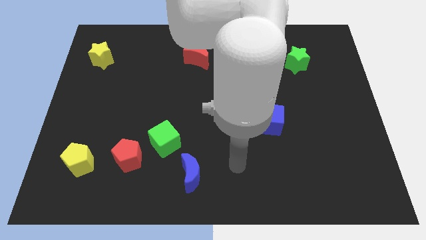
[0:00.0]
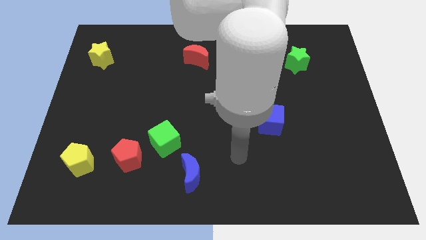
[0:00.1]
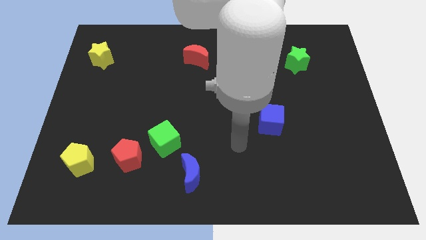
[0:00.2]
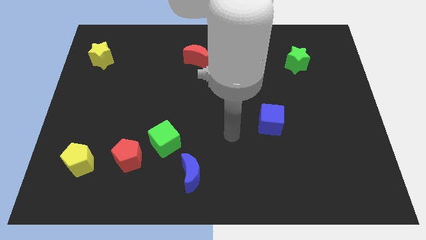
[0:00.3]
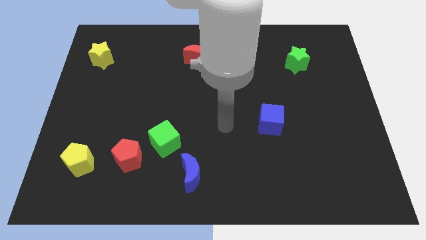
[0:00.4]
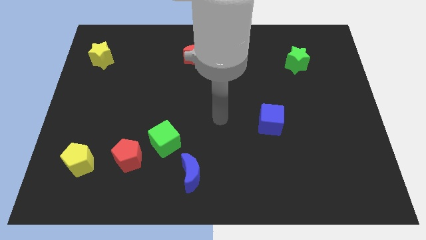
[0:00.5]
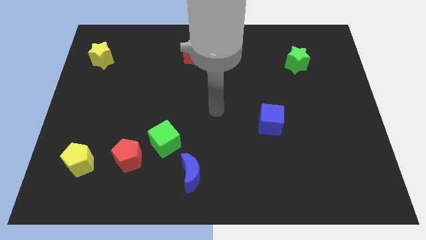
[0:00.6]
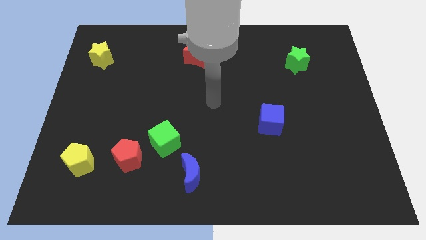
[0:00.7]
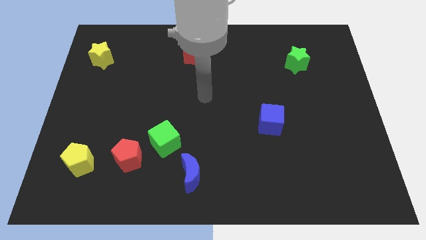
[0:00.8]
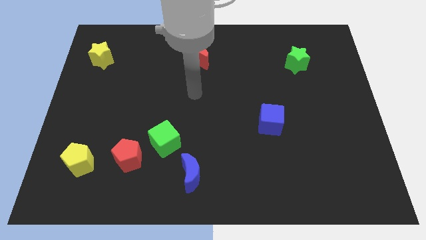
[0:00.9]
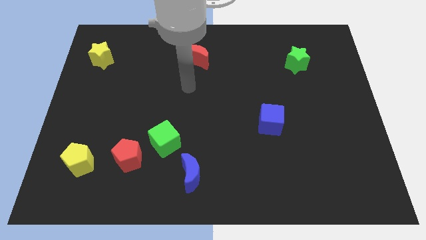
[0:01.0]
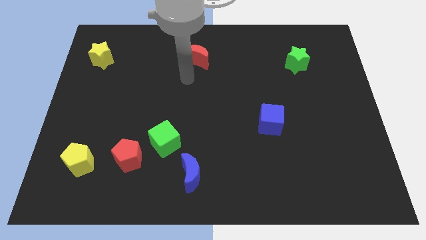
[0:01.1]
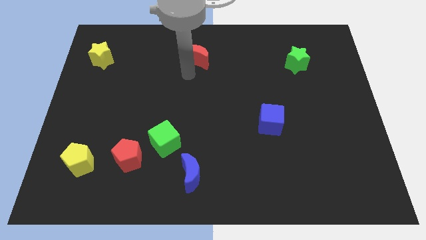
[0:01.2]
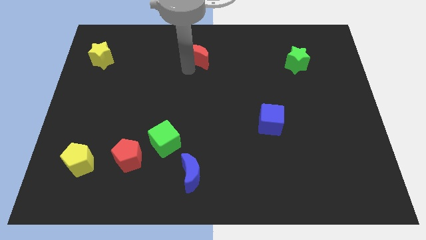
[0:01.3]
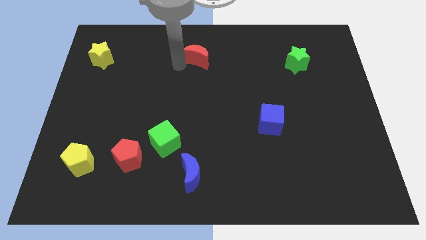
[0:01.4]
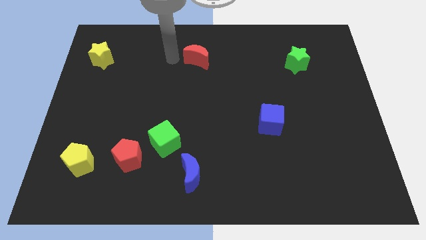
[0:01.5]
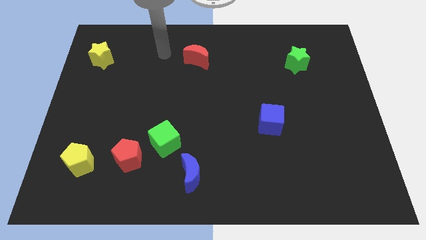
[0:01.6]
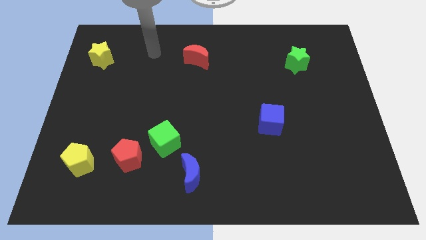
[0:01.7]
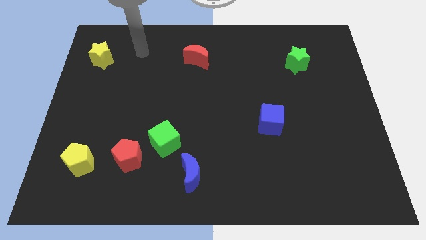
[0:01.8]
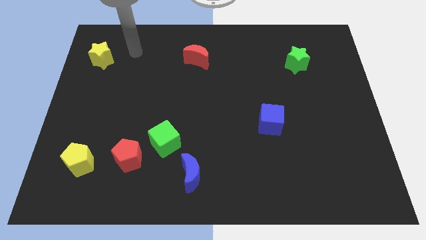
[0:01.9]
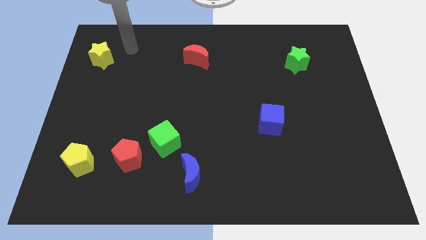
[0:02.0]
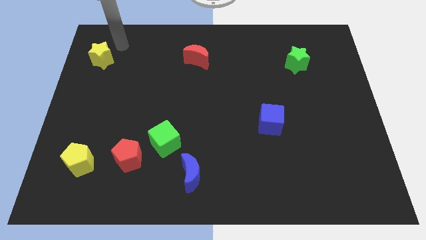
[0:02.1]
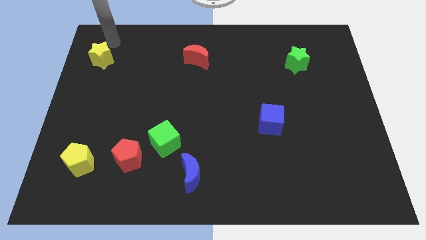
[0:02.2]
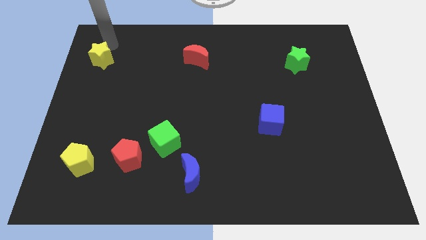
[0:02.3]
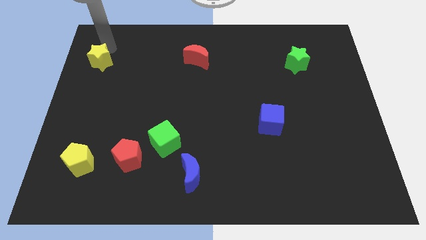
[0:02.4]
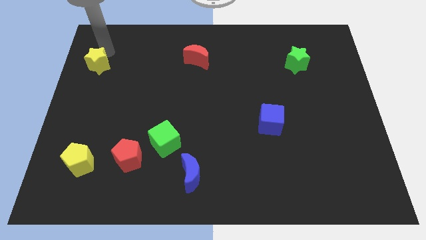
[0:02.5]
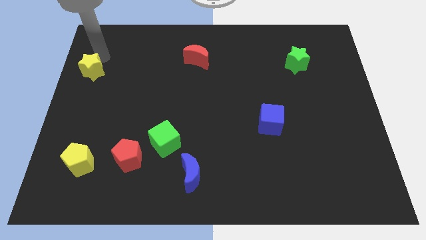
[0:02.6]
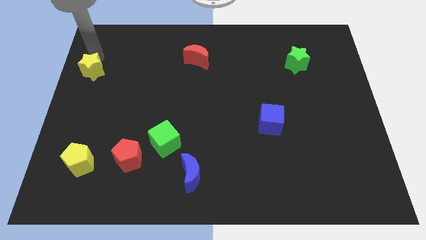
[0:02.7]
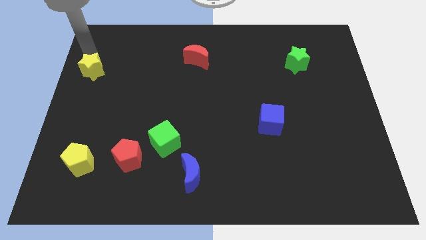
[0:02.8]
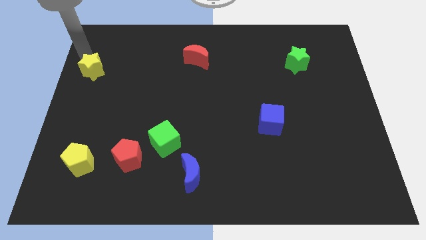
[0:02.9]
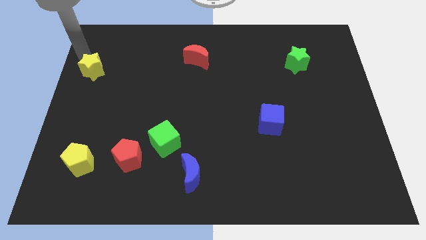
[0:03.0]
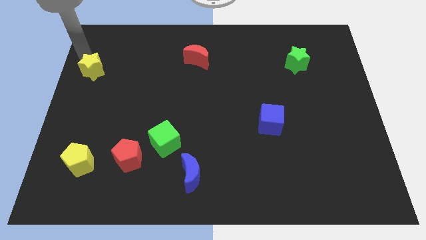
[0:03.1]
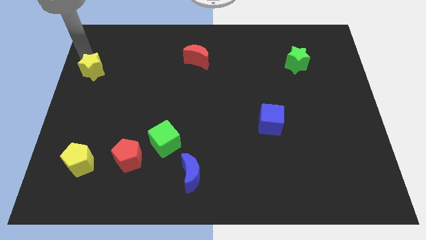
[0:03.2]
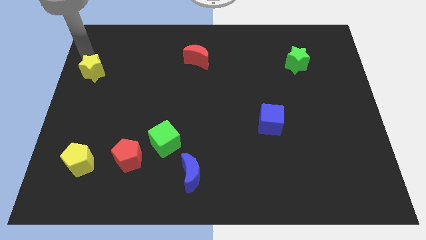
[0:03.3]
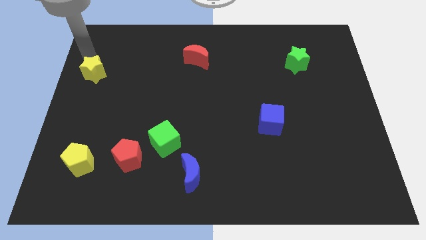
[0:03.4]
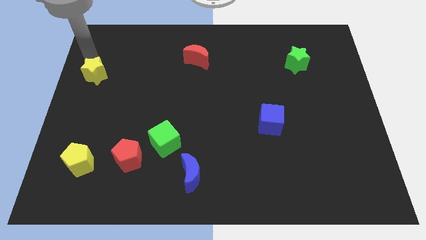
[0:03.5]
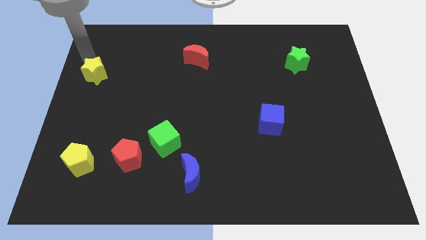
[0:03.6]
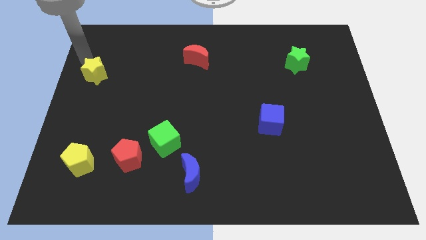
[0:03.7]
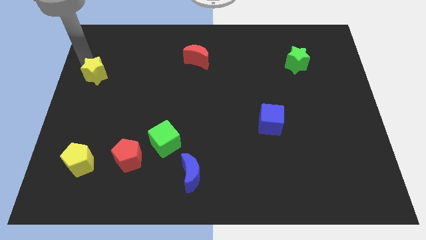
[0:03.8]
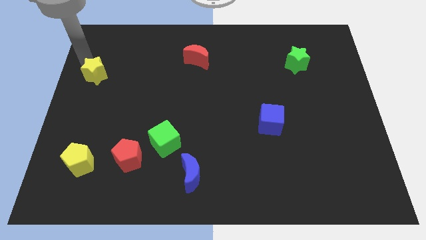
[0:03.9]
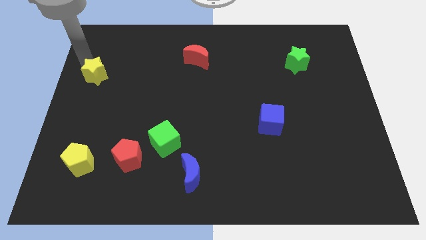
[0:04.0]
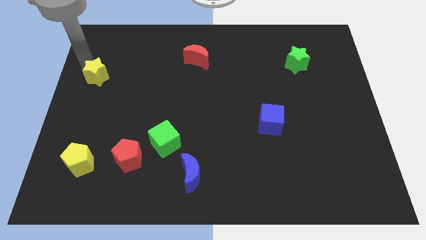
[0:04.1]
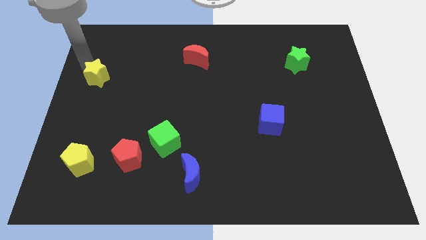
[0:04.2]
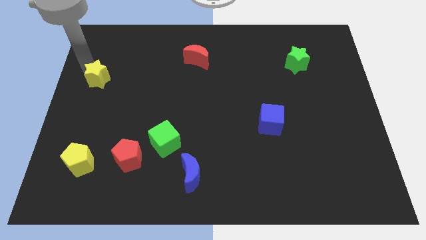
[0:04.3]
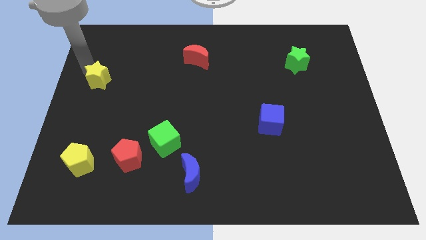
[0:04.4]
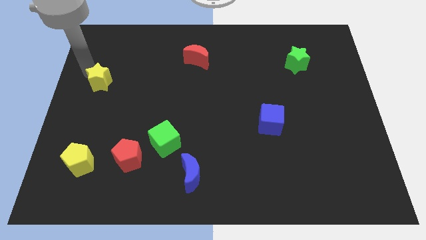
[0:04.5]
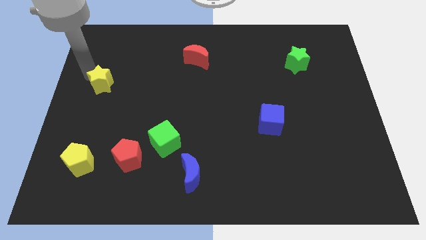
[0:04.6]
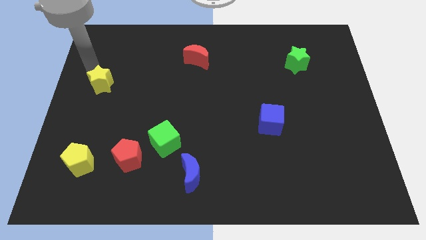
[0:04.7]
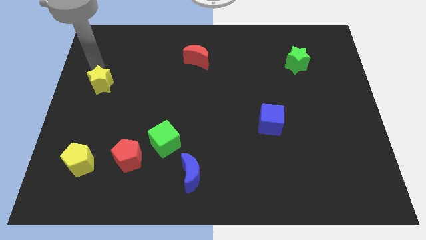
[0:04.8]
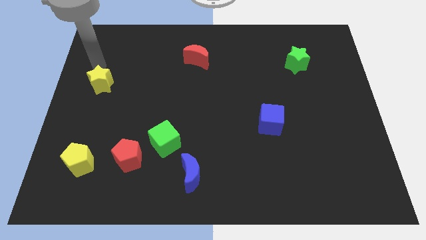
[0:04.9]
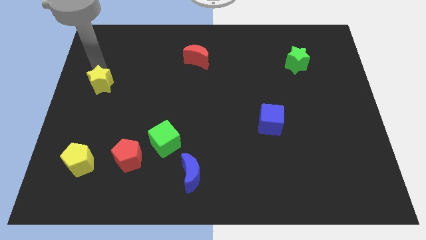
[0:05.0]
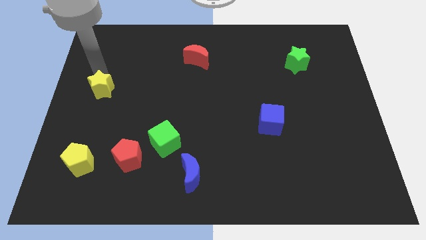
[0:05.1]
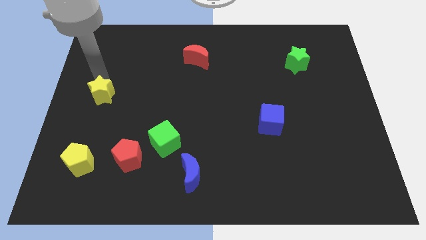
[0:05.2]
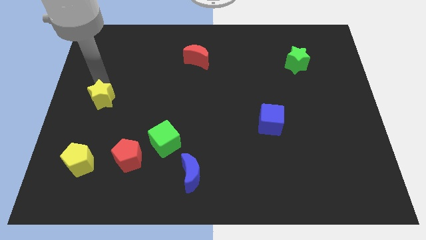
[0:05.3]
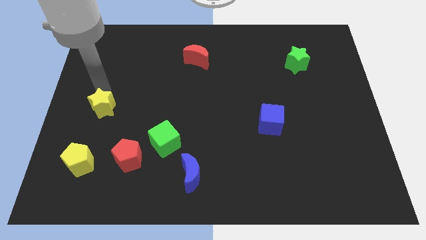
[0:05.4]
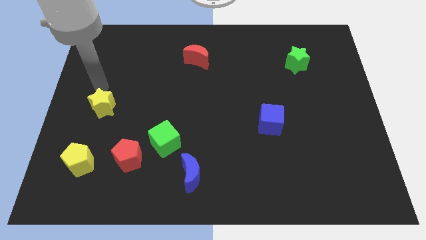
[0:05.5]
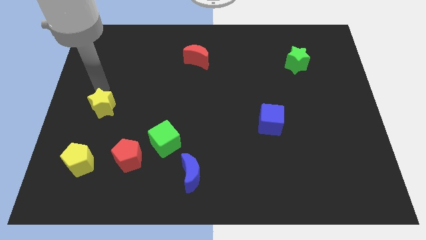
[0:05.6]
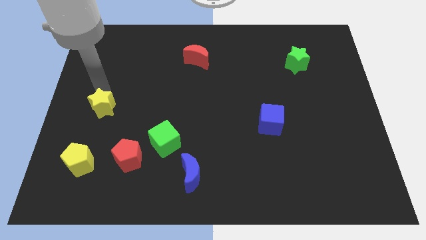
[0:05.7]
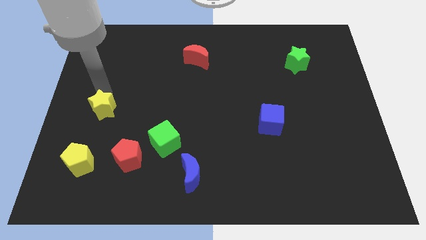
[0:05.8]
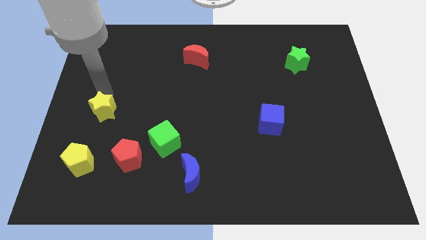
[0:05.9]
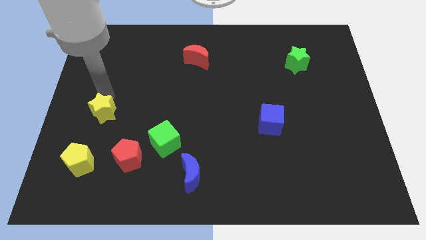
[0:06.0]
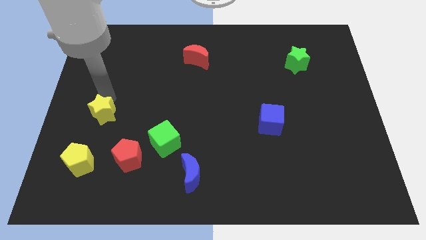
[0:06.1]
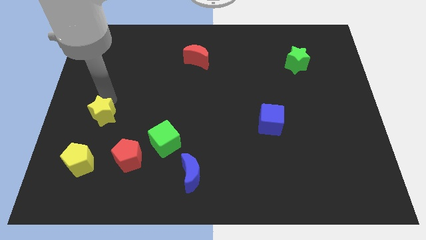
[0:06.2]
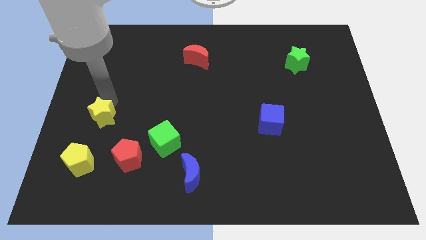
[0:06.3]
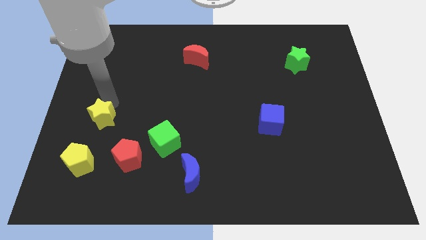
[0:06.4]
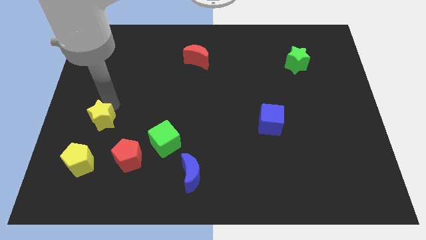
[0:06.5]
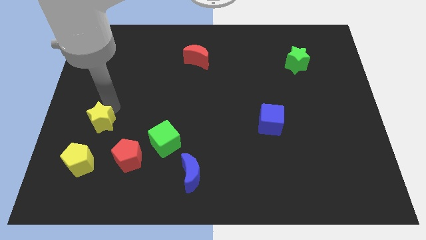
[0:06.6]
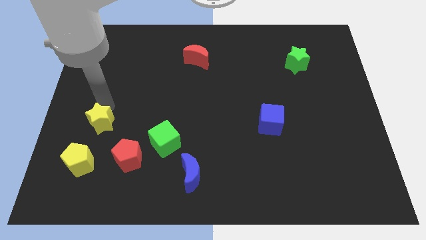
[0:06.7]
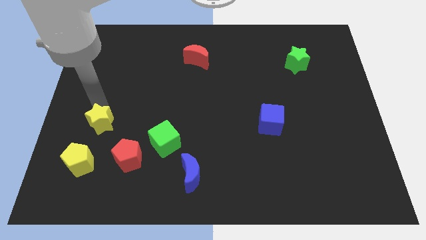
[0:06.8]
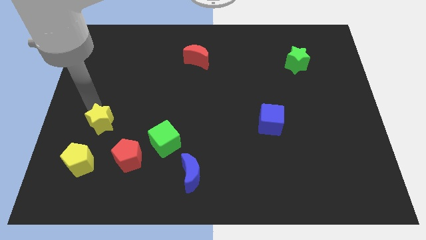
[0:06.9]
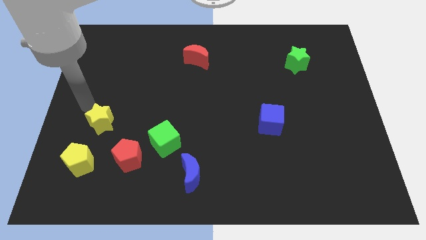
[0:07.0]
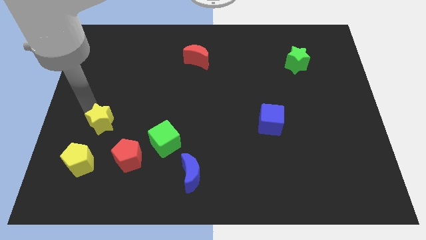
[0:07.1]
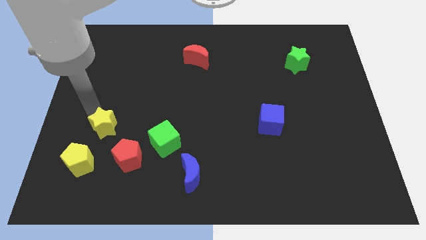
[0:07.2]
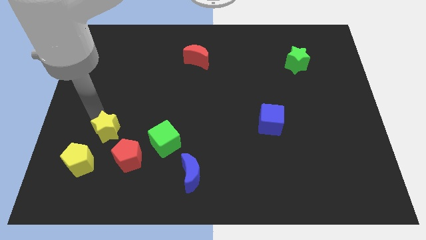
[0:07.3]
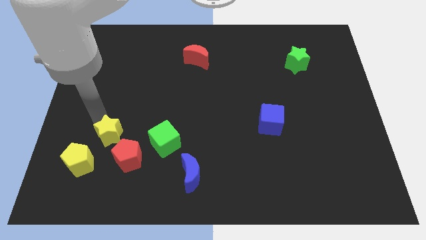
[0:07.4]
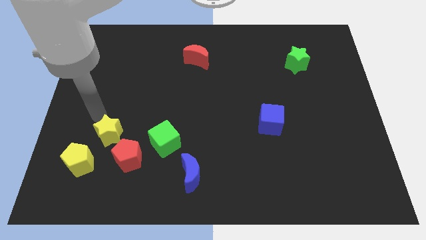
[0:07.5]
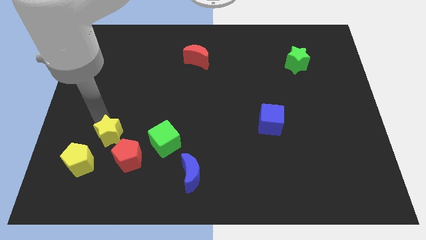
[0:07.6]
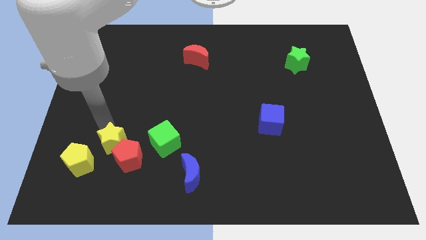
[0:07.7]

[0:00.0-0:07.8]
push the yellow star towards the red pentagon
